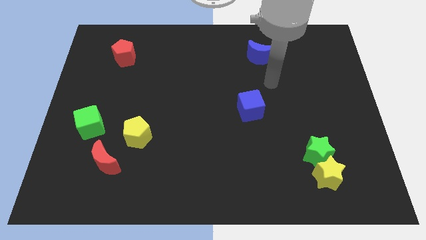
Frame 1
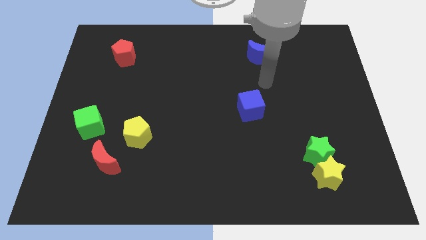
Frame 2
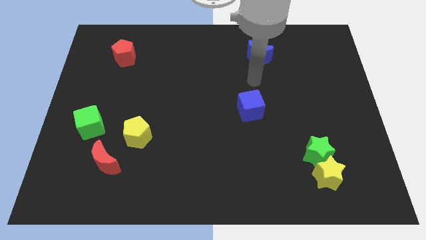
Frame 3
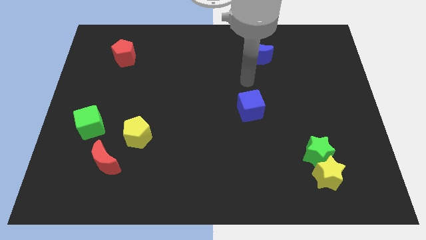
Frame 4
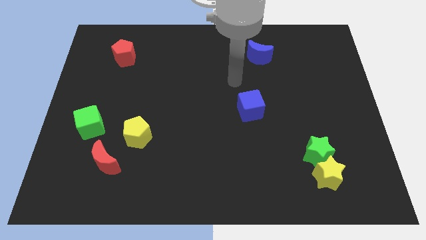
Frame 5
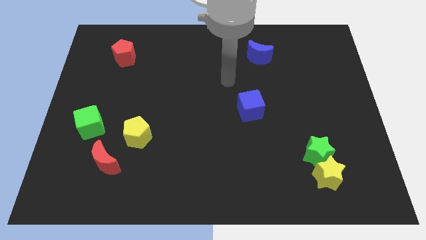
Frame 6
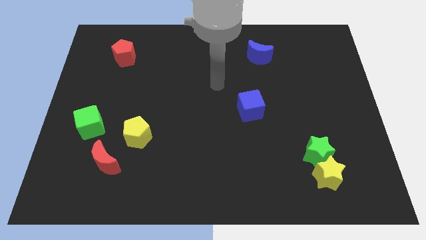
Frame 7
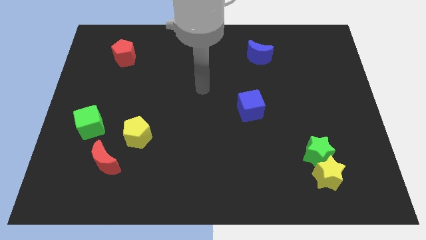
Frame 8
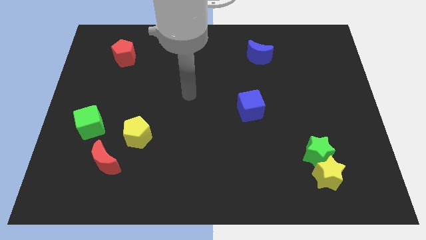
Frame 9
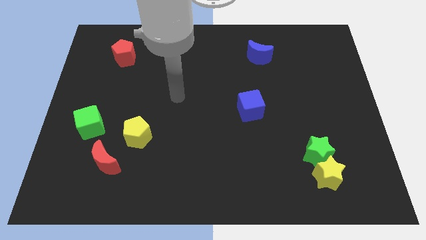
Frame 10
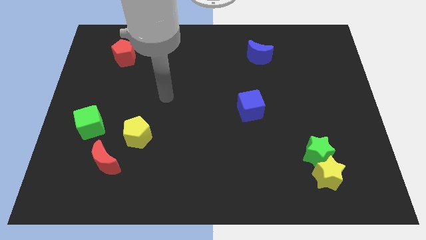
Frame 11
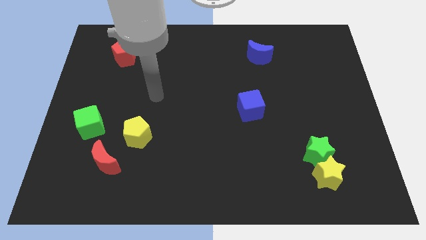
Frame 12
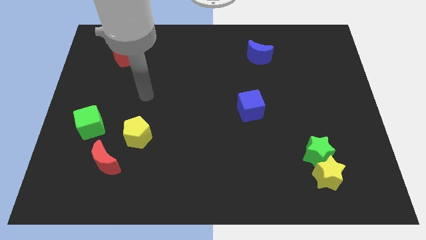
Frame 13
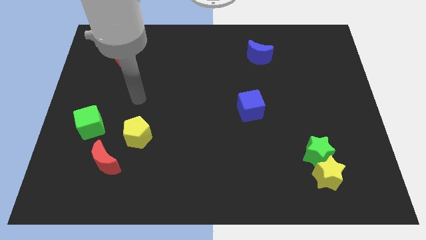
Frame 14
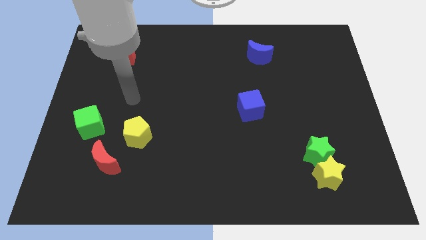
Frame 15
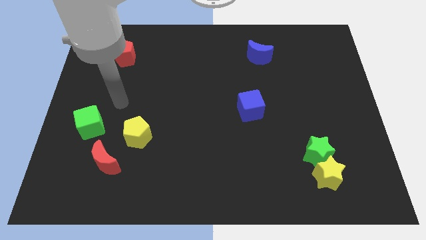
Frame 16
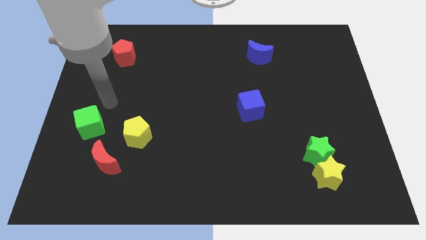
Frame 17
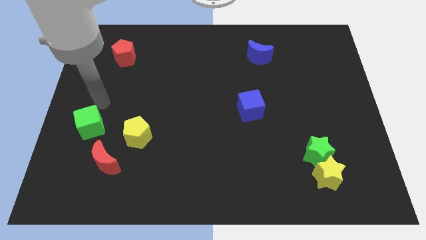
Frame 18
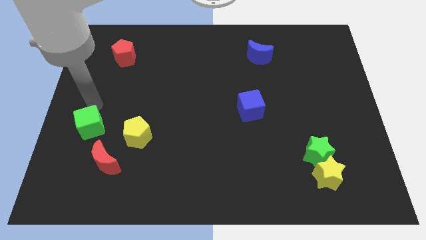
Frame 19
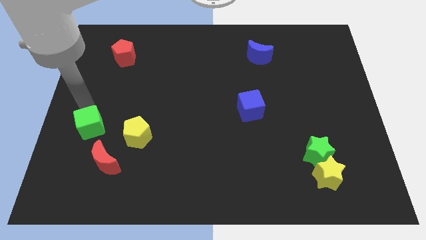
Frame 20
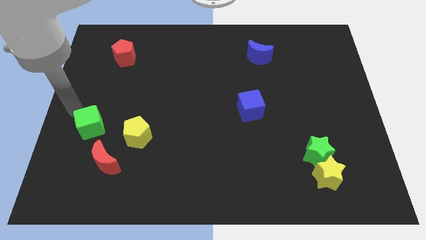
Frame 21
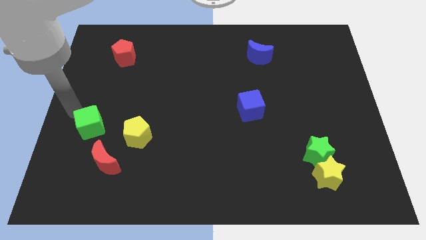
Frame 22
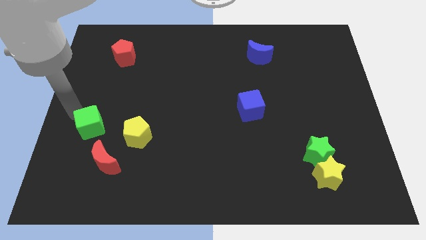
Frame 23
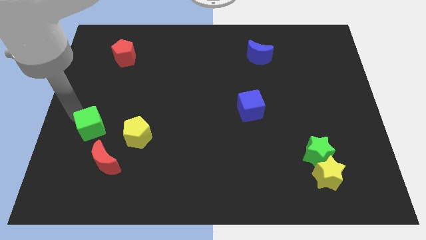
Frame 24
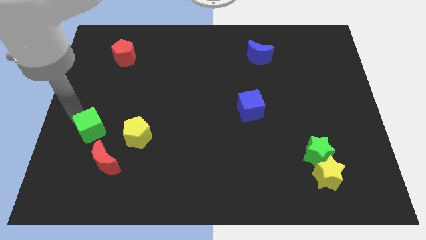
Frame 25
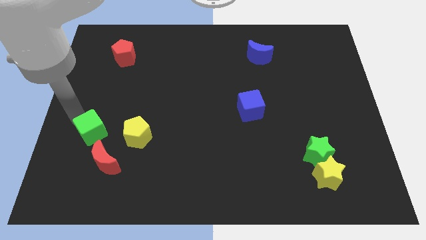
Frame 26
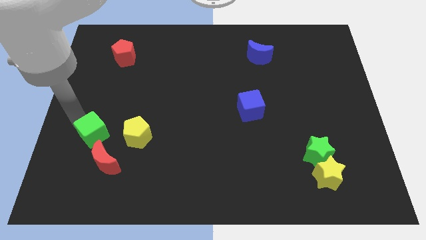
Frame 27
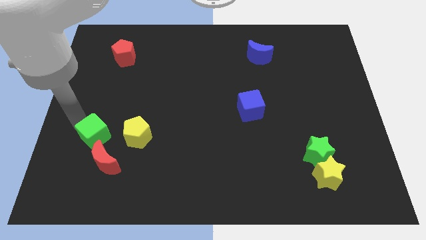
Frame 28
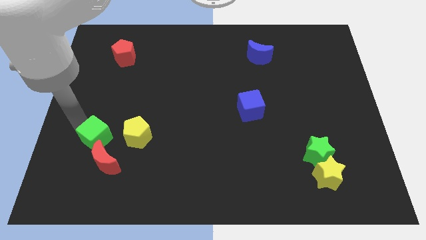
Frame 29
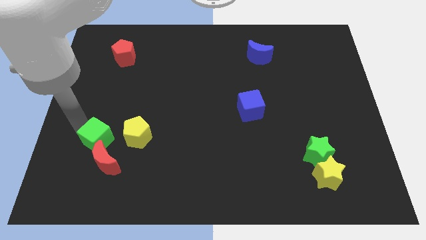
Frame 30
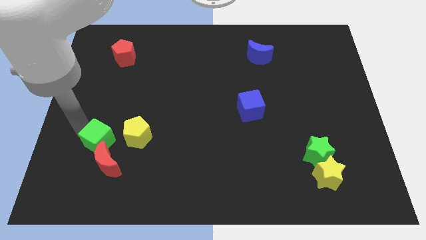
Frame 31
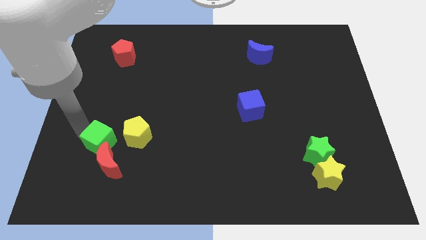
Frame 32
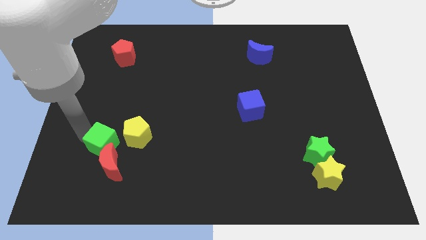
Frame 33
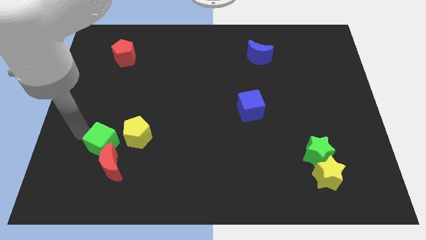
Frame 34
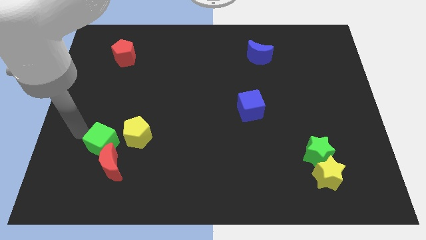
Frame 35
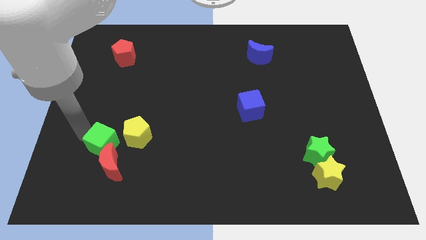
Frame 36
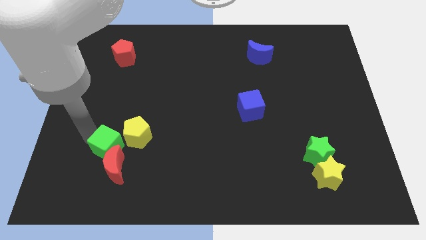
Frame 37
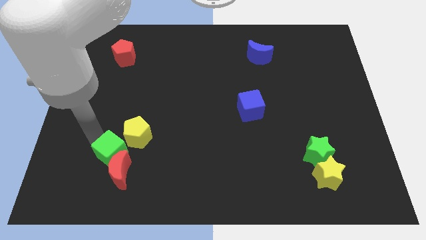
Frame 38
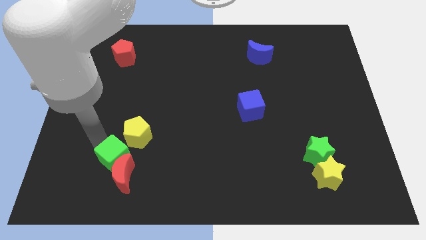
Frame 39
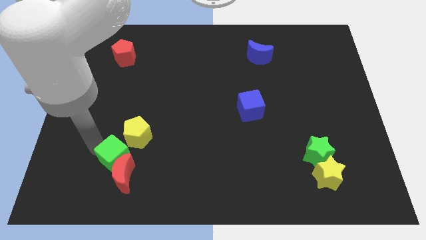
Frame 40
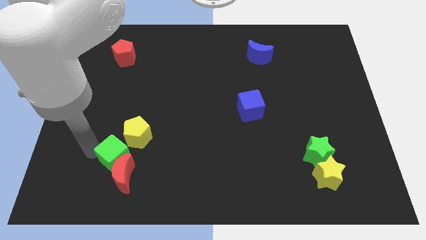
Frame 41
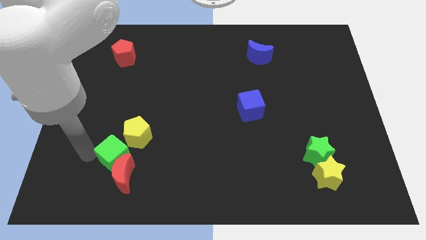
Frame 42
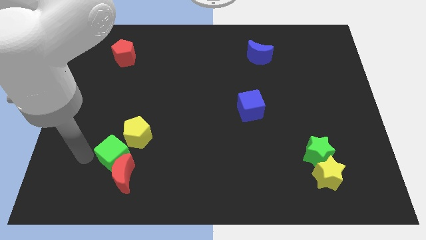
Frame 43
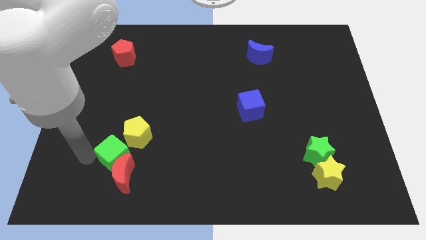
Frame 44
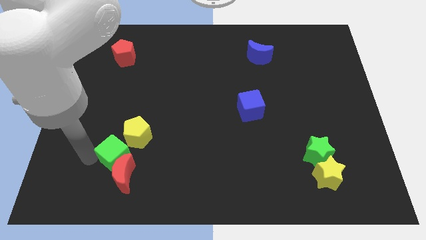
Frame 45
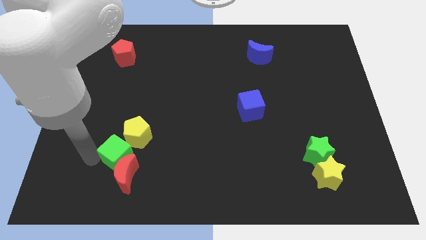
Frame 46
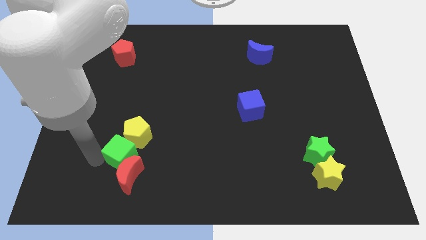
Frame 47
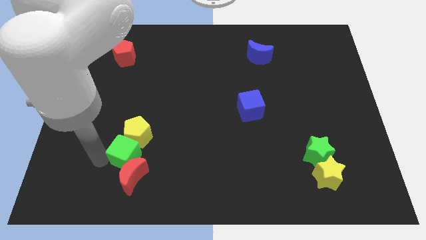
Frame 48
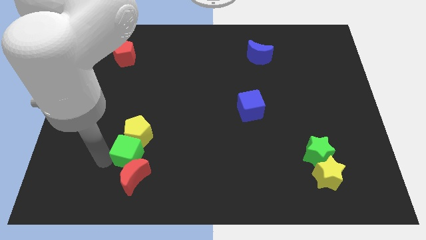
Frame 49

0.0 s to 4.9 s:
put the green cube to the bottom right of the yellow pentagon

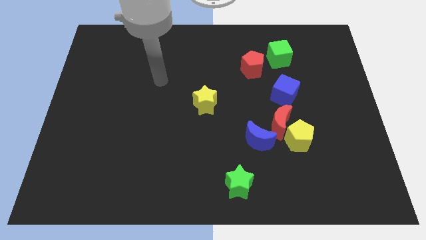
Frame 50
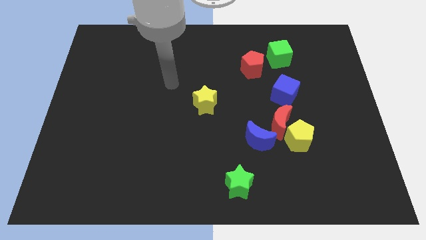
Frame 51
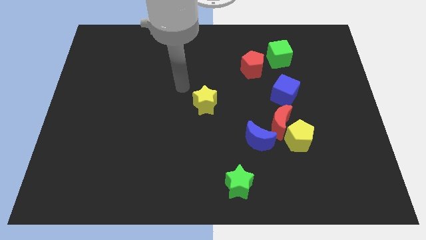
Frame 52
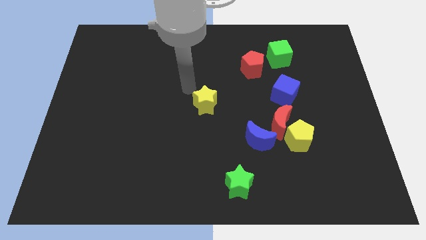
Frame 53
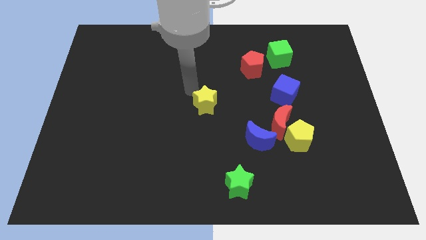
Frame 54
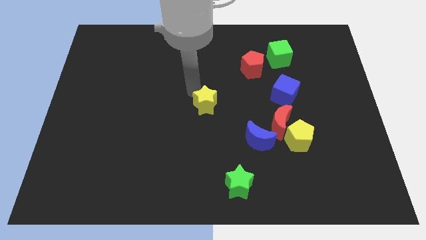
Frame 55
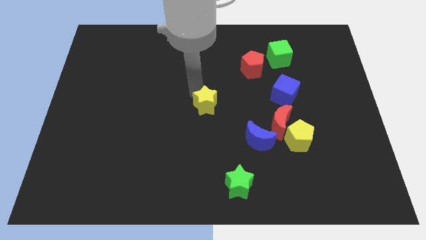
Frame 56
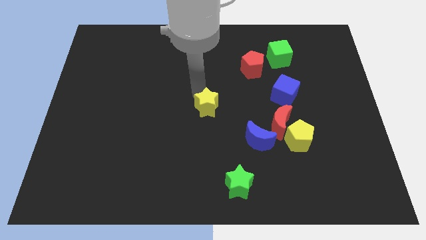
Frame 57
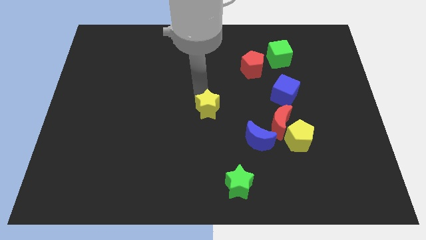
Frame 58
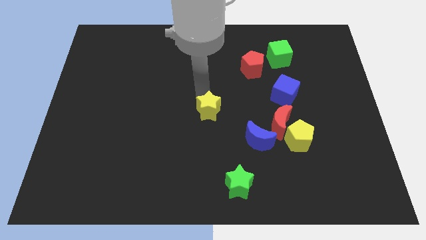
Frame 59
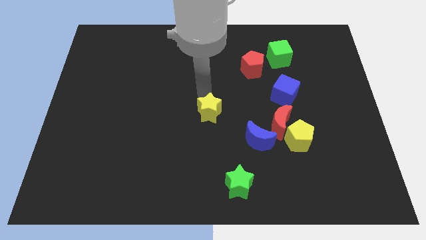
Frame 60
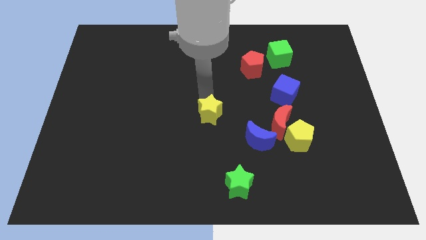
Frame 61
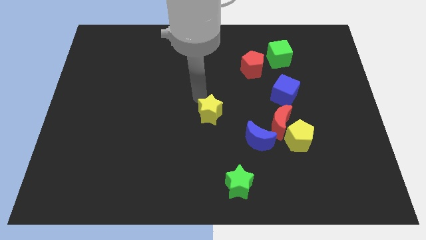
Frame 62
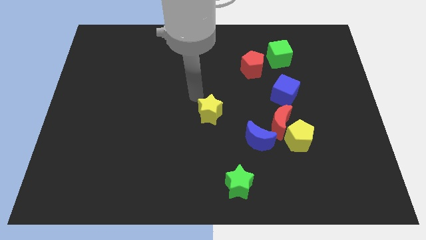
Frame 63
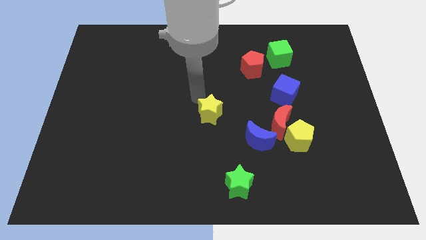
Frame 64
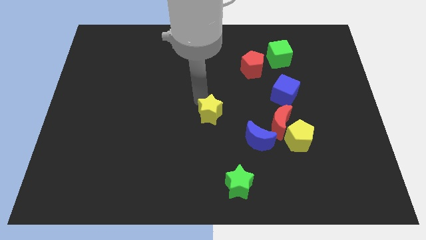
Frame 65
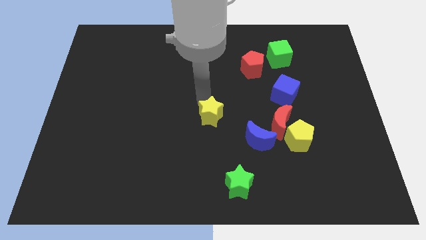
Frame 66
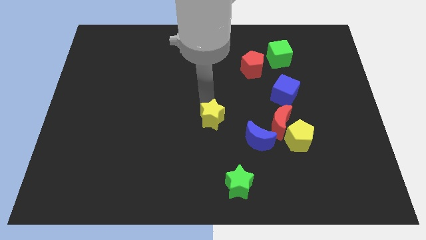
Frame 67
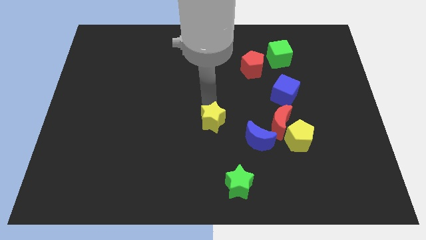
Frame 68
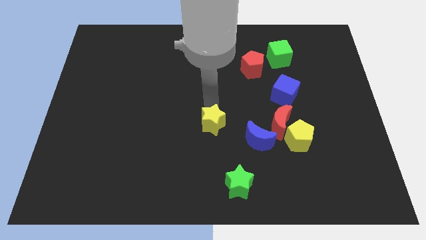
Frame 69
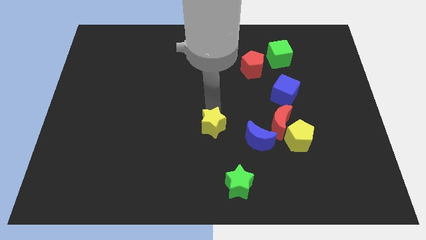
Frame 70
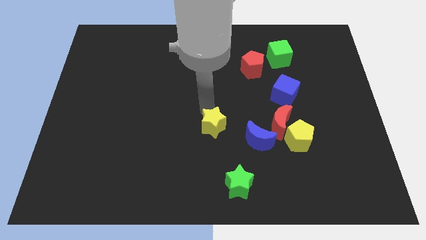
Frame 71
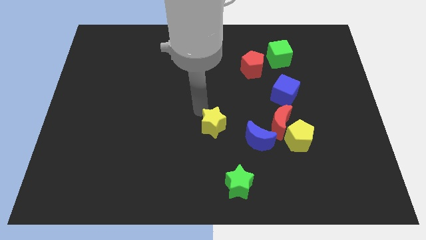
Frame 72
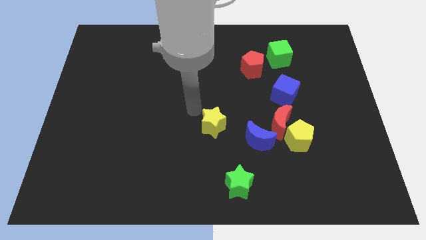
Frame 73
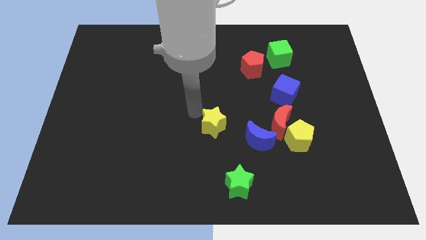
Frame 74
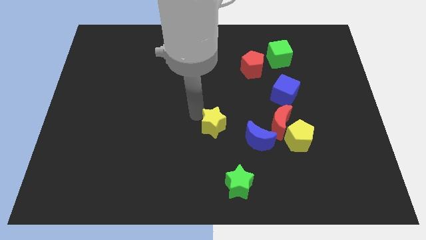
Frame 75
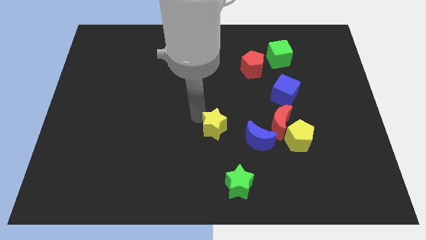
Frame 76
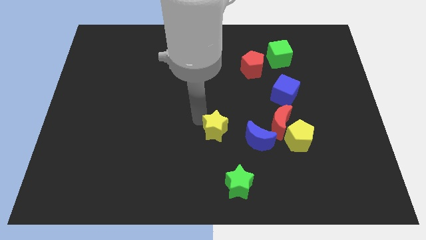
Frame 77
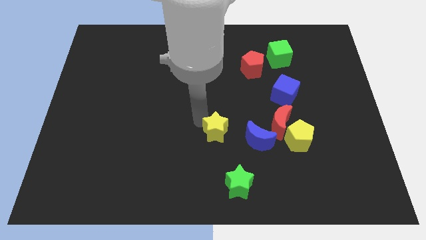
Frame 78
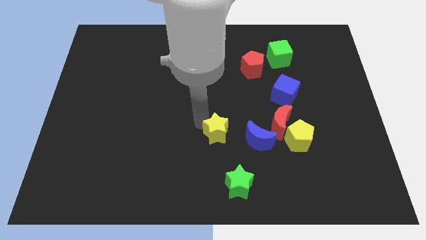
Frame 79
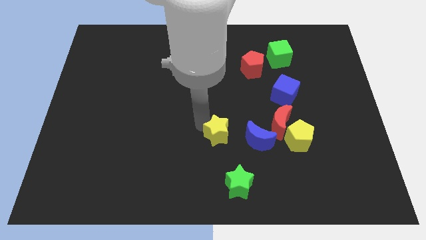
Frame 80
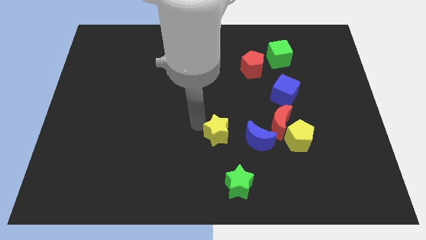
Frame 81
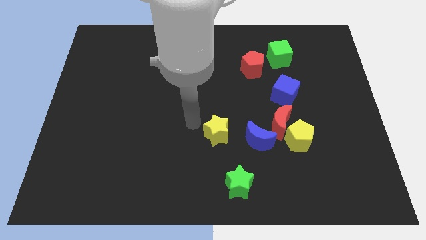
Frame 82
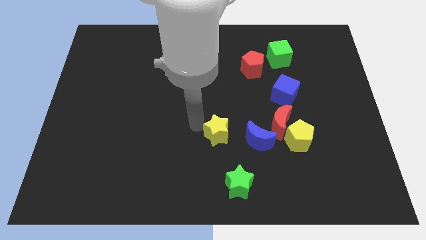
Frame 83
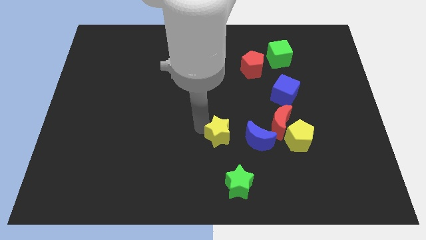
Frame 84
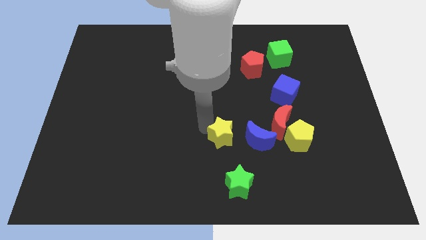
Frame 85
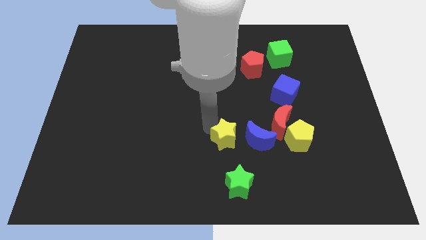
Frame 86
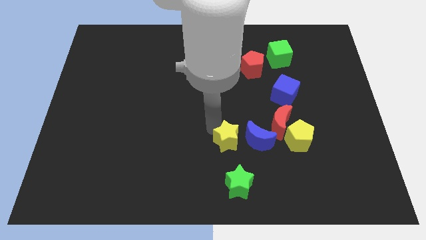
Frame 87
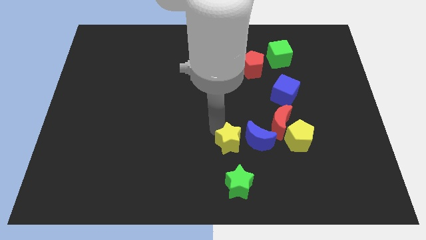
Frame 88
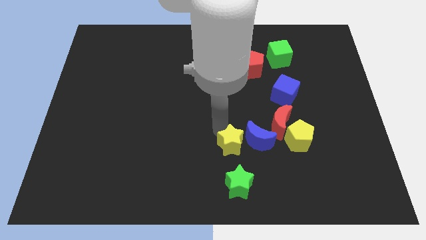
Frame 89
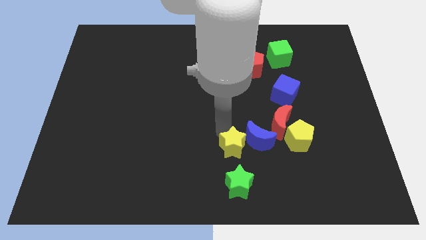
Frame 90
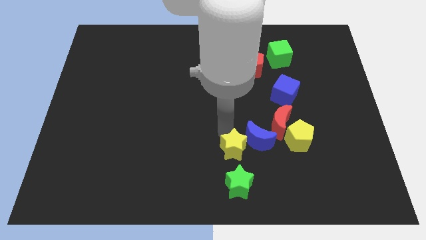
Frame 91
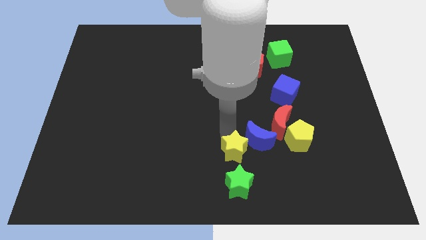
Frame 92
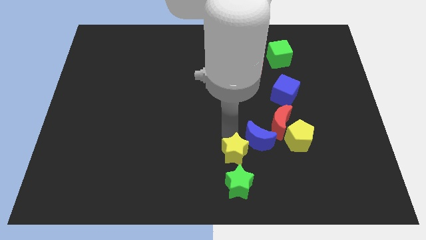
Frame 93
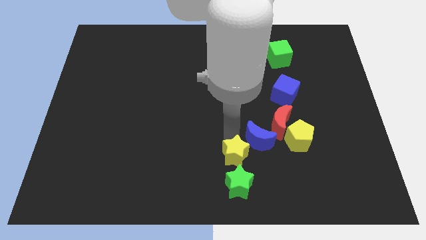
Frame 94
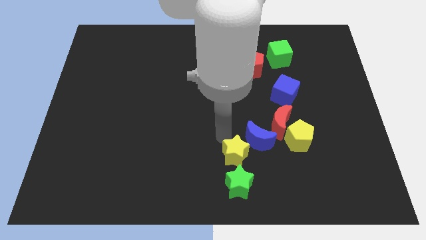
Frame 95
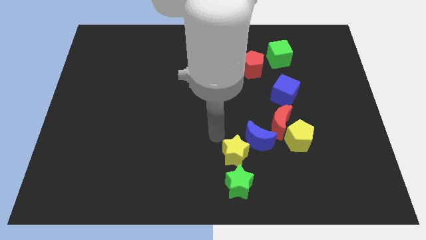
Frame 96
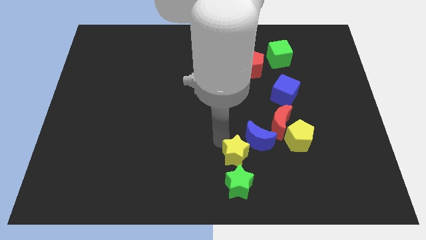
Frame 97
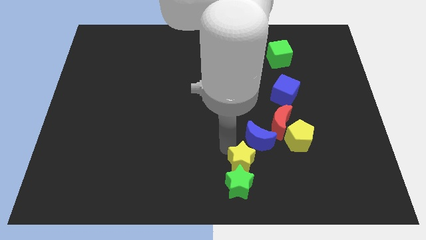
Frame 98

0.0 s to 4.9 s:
move the yellow star to the bottom of the blue moon
